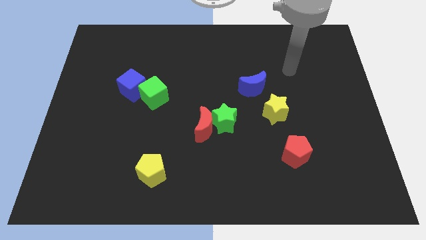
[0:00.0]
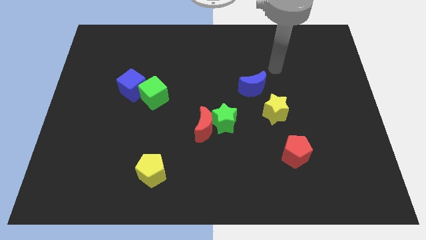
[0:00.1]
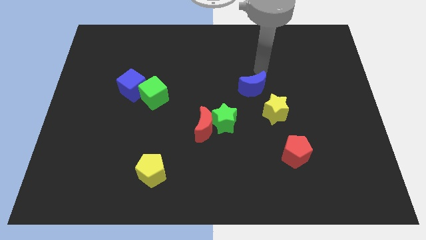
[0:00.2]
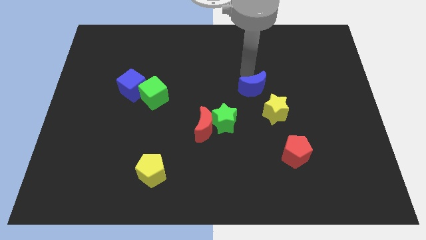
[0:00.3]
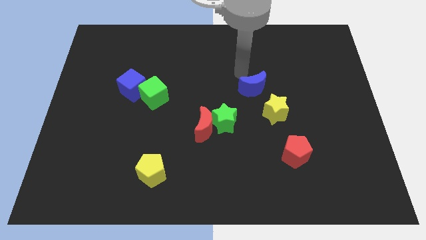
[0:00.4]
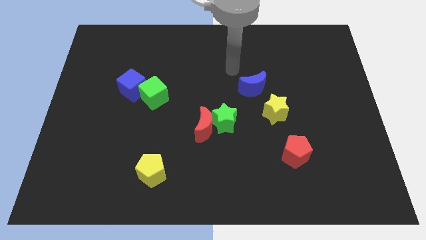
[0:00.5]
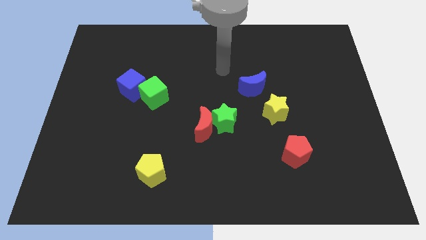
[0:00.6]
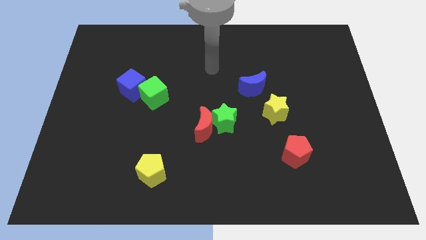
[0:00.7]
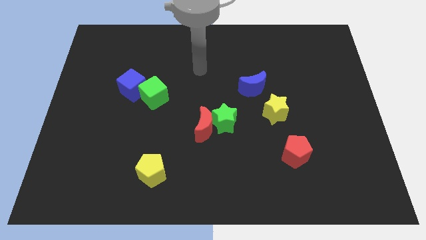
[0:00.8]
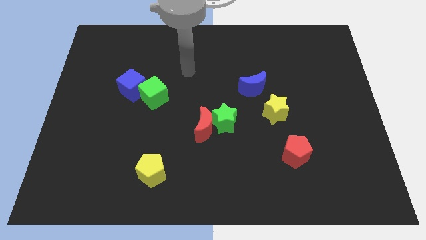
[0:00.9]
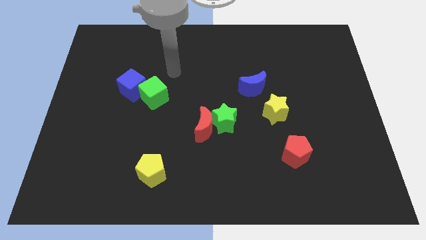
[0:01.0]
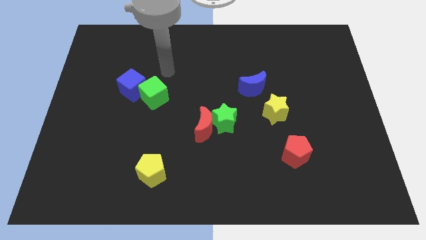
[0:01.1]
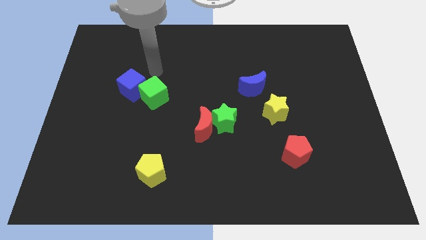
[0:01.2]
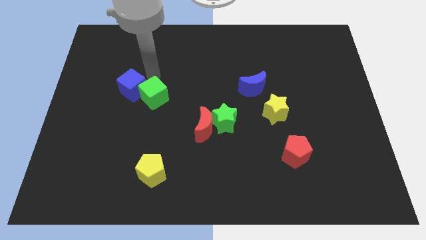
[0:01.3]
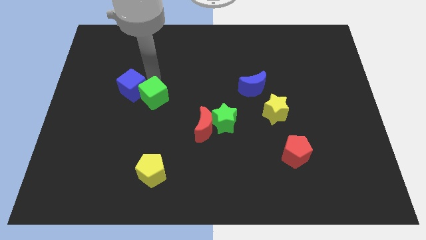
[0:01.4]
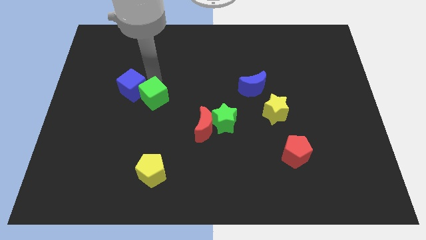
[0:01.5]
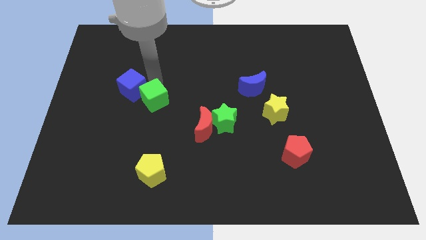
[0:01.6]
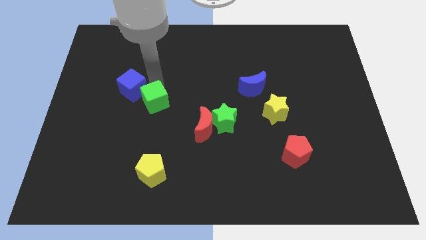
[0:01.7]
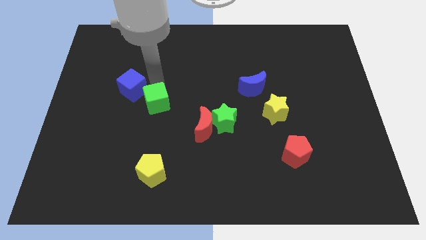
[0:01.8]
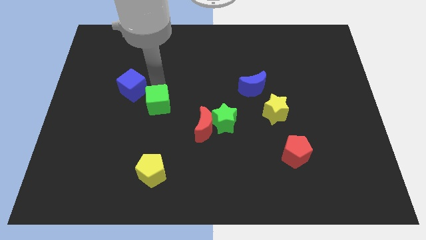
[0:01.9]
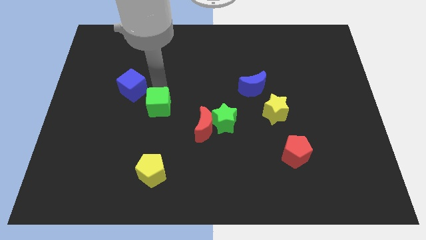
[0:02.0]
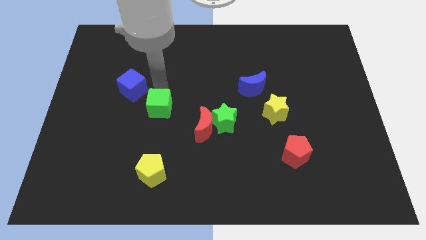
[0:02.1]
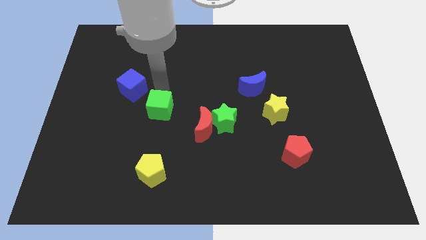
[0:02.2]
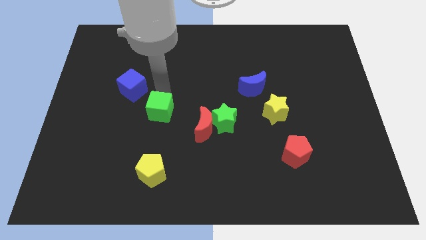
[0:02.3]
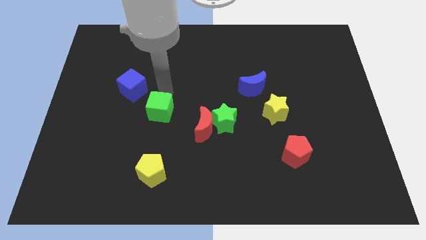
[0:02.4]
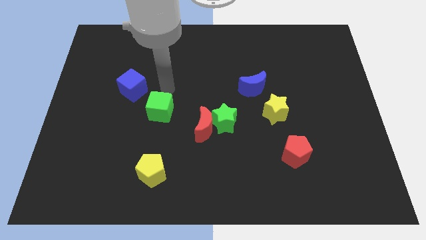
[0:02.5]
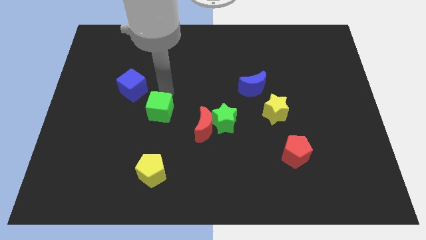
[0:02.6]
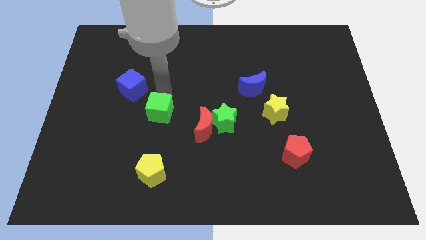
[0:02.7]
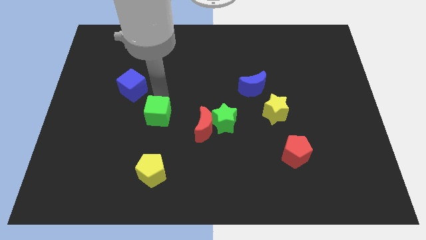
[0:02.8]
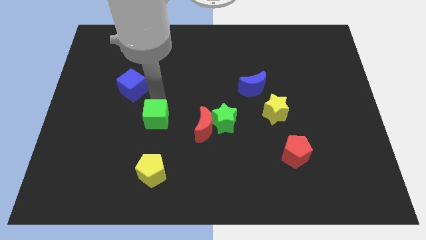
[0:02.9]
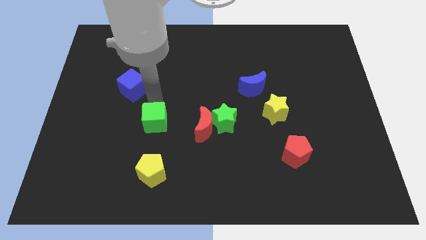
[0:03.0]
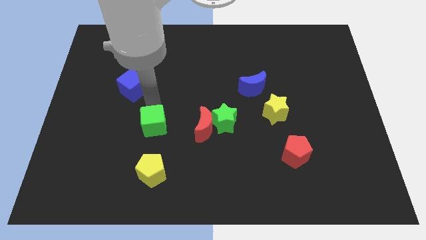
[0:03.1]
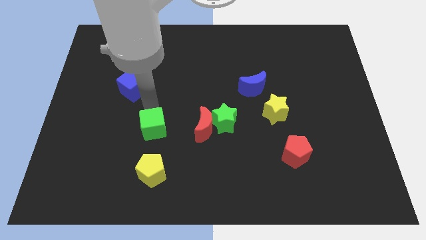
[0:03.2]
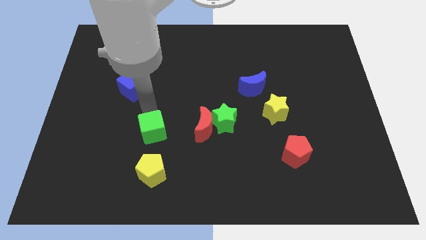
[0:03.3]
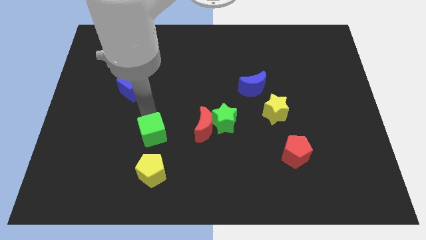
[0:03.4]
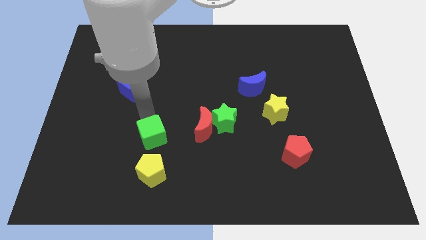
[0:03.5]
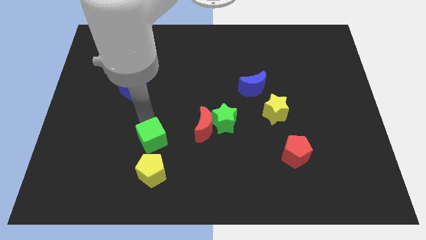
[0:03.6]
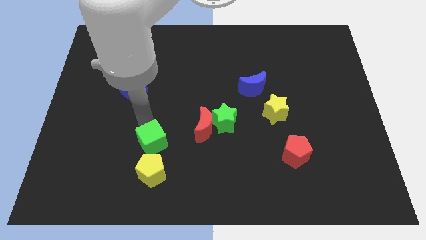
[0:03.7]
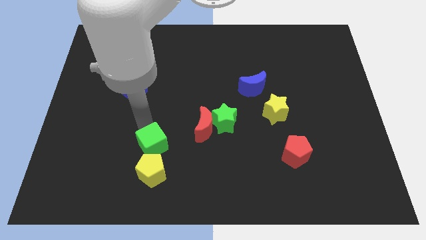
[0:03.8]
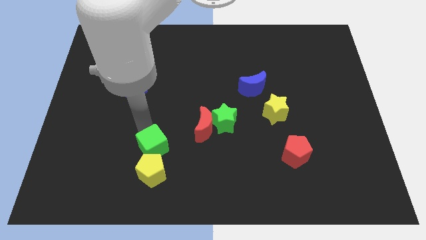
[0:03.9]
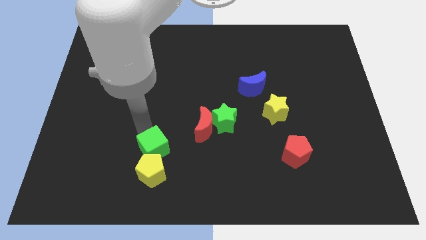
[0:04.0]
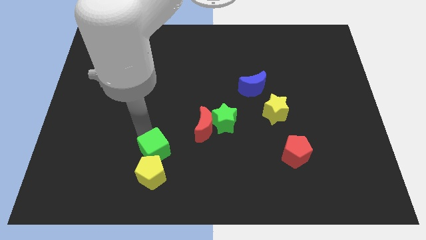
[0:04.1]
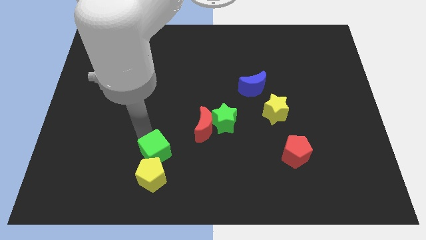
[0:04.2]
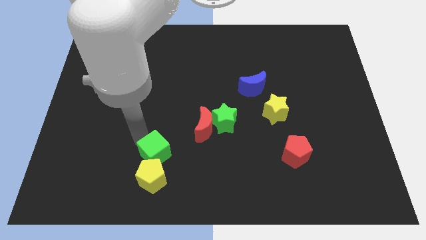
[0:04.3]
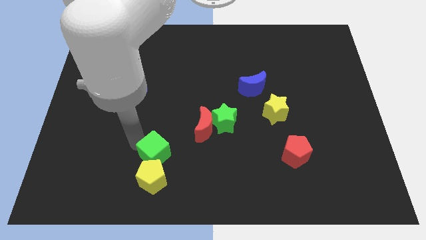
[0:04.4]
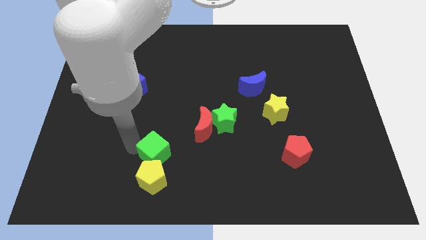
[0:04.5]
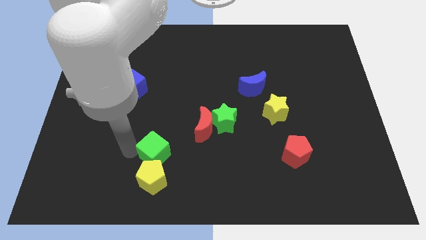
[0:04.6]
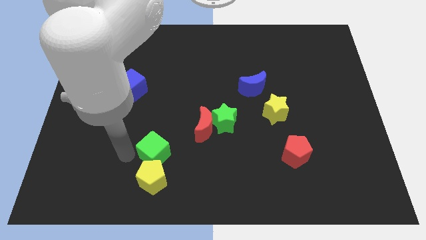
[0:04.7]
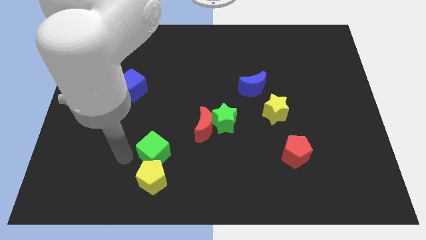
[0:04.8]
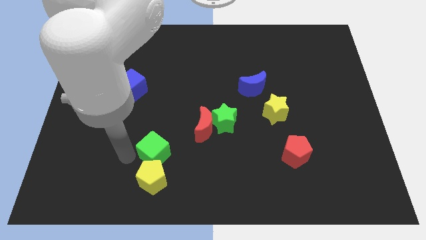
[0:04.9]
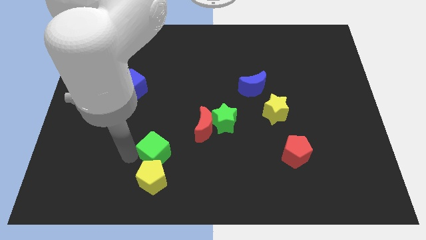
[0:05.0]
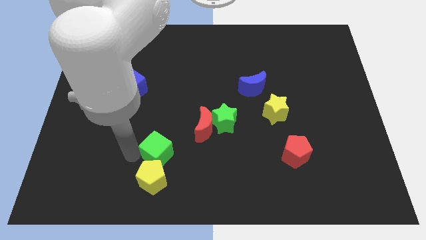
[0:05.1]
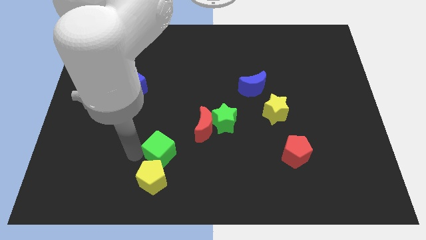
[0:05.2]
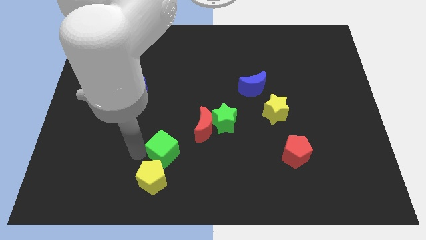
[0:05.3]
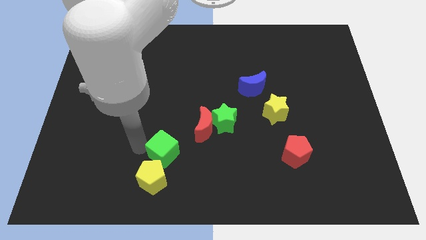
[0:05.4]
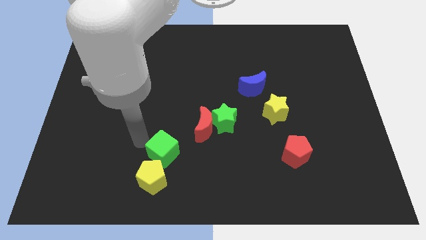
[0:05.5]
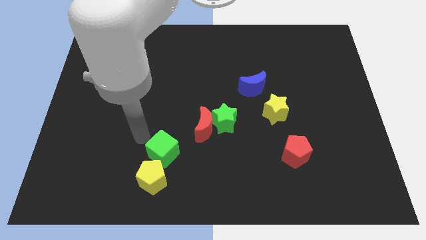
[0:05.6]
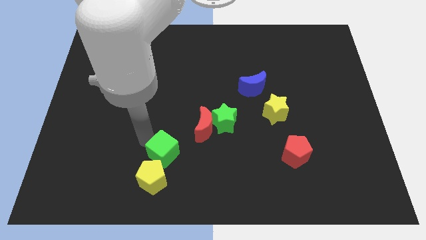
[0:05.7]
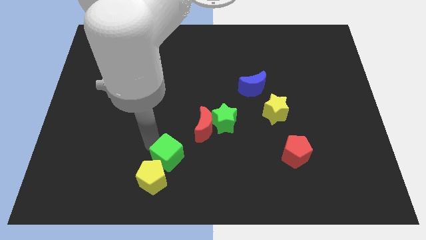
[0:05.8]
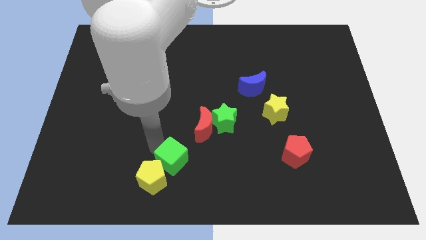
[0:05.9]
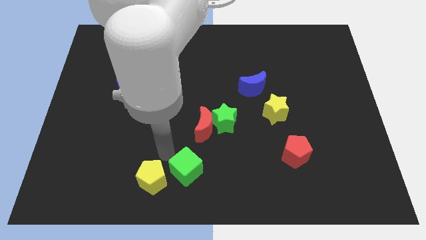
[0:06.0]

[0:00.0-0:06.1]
put the green cube to the bottom side
